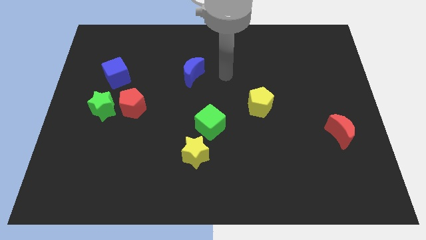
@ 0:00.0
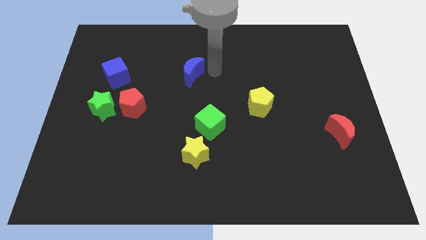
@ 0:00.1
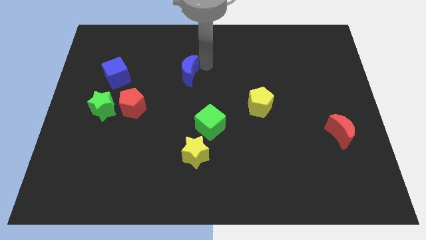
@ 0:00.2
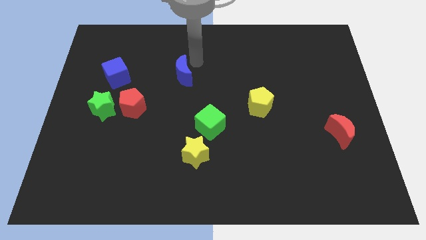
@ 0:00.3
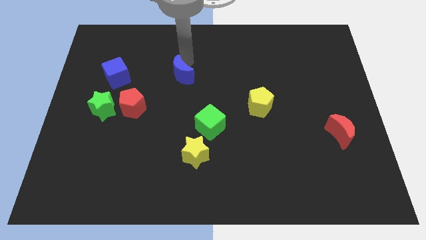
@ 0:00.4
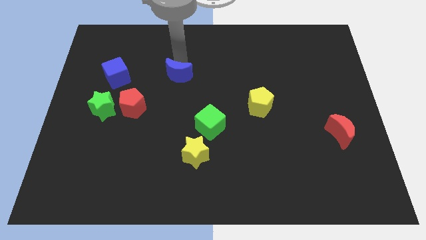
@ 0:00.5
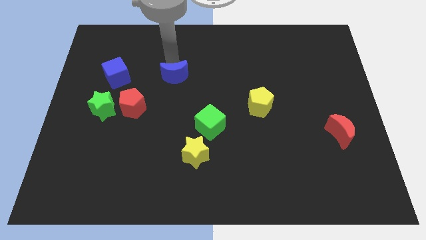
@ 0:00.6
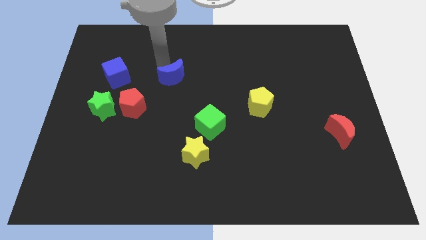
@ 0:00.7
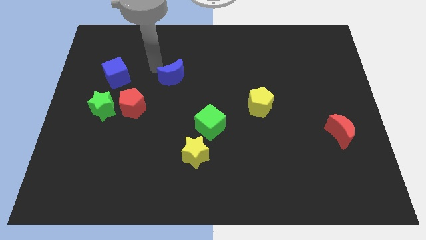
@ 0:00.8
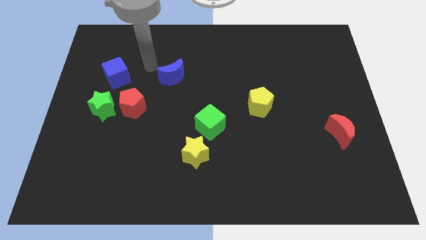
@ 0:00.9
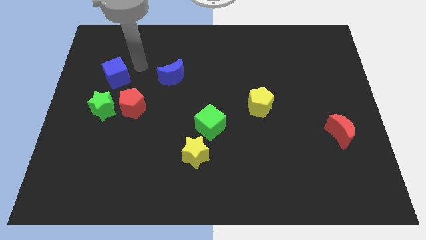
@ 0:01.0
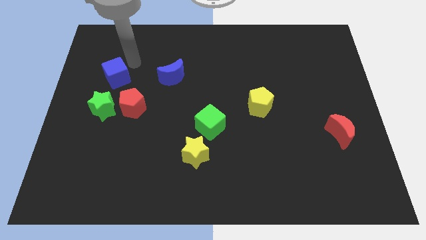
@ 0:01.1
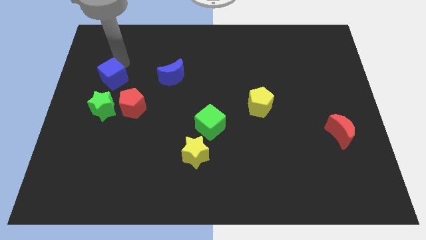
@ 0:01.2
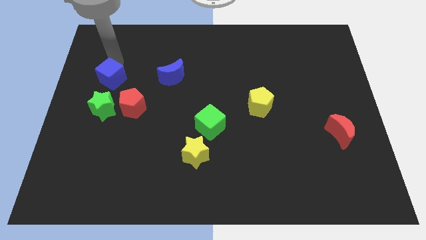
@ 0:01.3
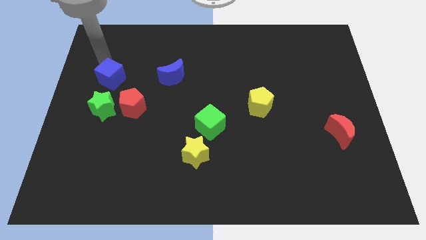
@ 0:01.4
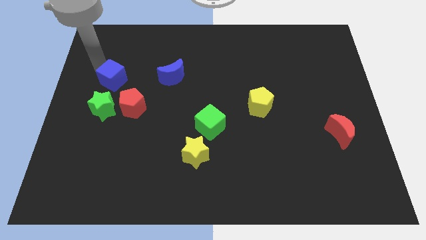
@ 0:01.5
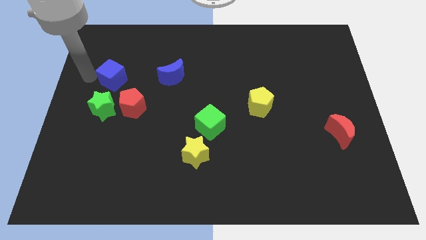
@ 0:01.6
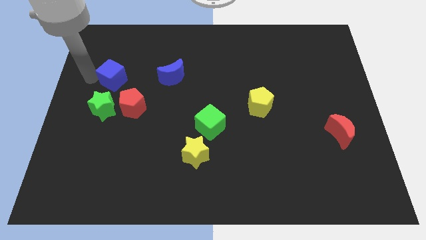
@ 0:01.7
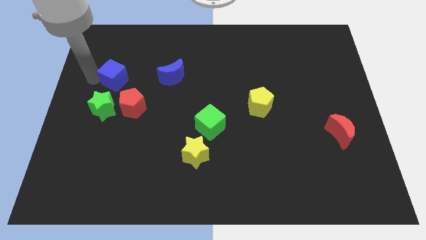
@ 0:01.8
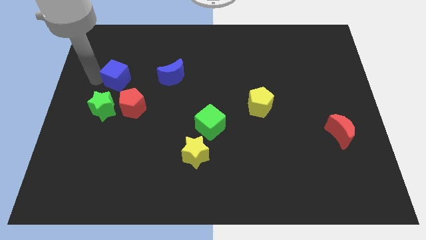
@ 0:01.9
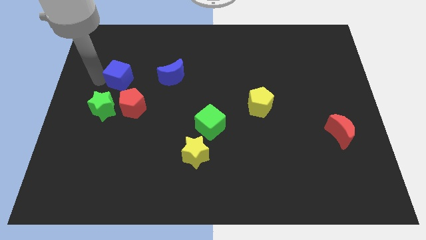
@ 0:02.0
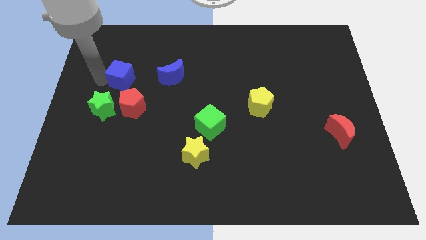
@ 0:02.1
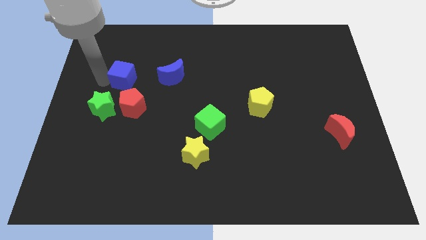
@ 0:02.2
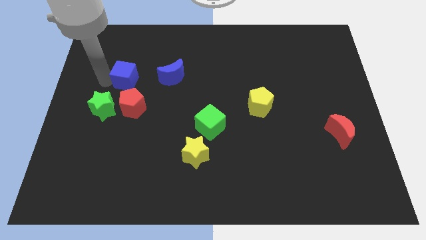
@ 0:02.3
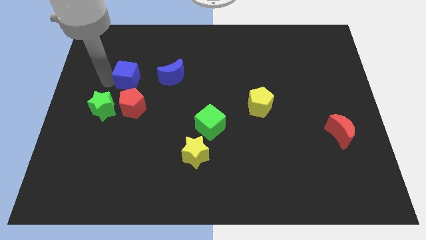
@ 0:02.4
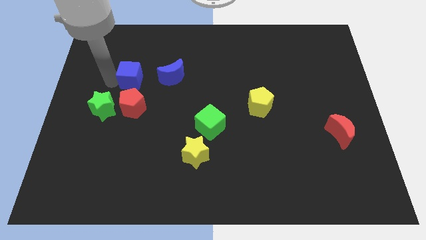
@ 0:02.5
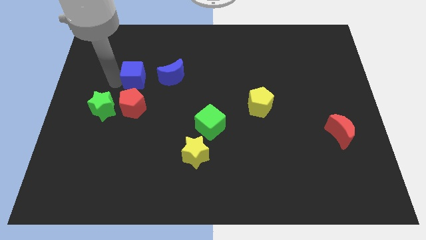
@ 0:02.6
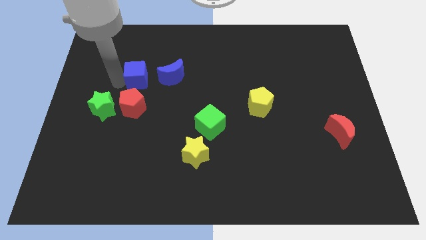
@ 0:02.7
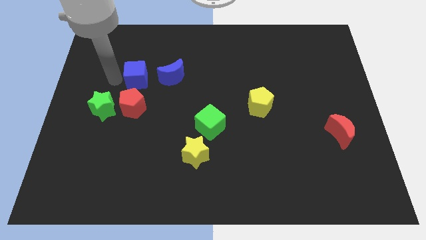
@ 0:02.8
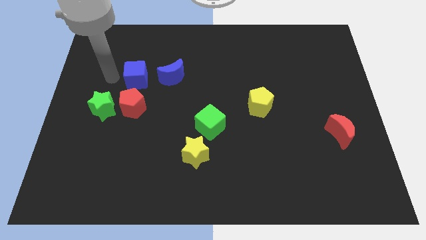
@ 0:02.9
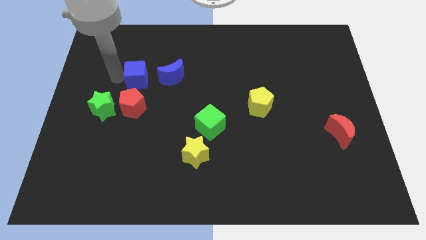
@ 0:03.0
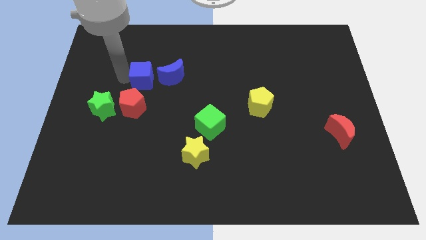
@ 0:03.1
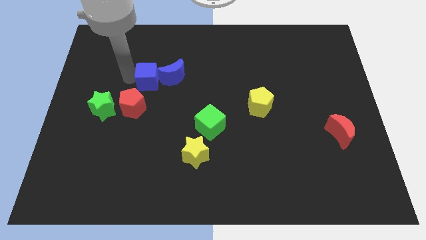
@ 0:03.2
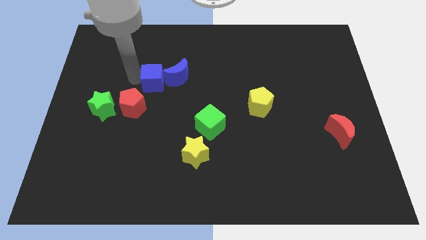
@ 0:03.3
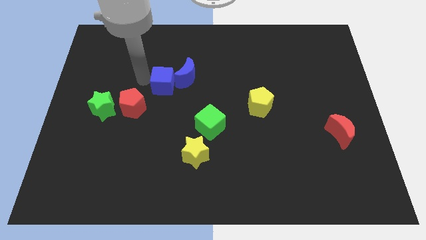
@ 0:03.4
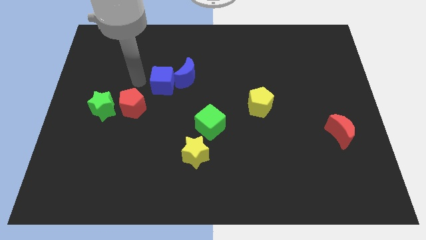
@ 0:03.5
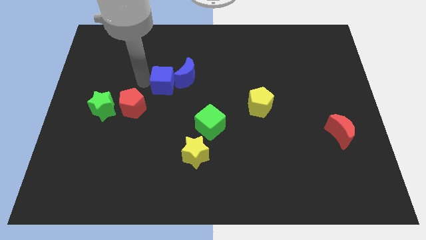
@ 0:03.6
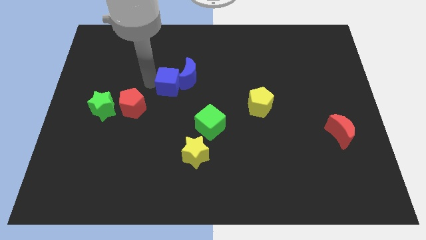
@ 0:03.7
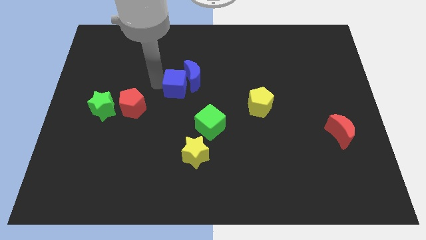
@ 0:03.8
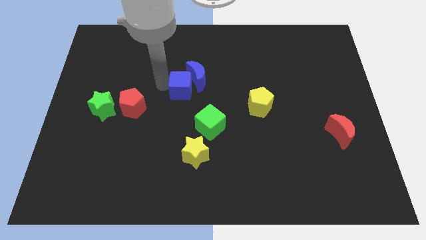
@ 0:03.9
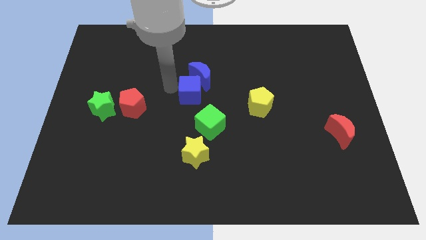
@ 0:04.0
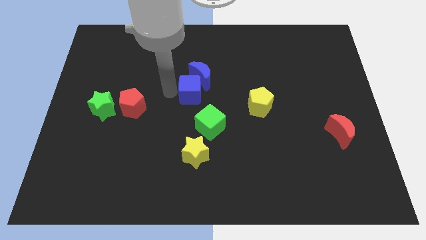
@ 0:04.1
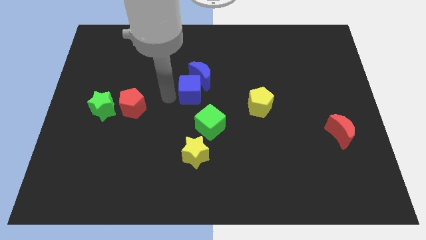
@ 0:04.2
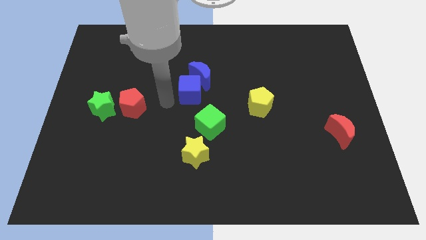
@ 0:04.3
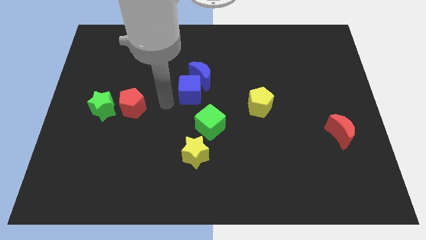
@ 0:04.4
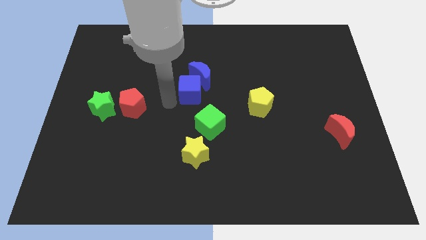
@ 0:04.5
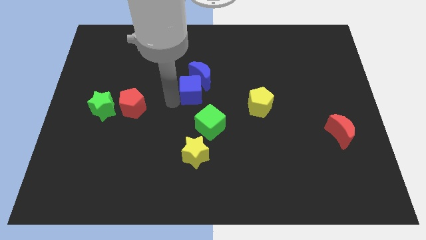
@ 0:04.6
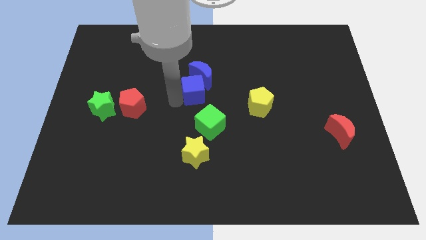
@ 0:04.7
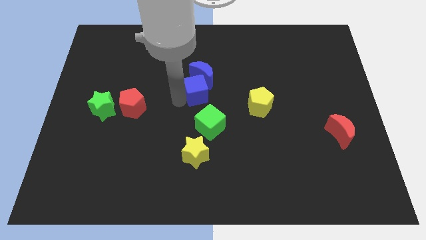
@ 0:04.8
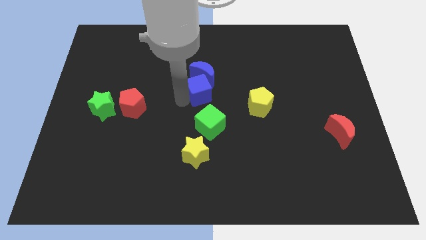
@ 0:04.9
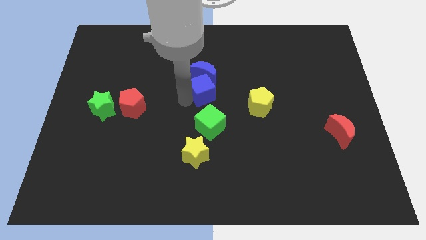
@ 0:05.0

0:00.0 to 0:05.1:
move the blue cube to the right

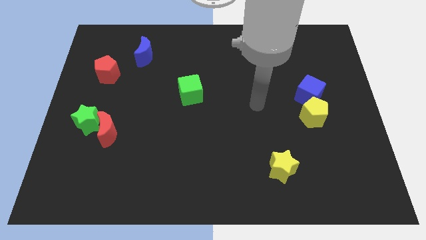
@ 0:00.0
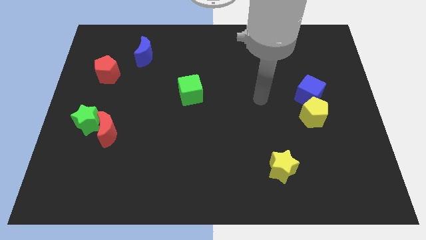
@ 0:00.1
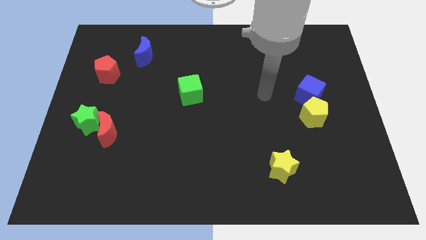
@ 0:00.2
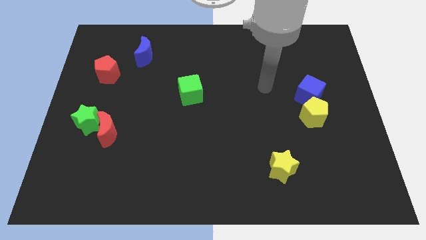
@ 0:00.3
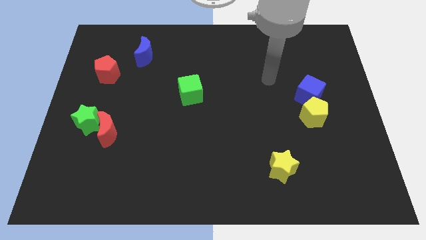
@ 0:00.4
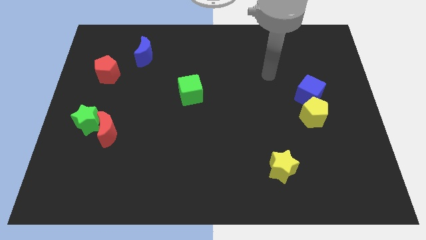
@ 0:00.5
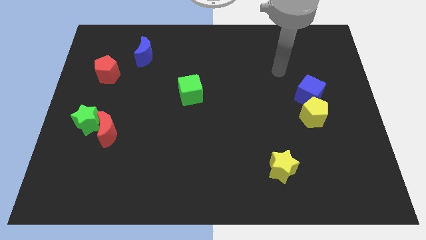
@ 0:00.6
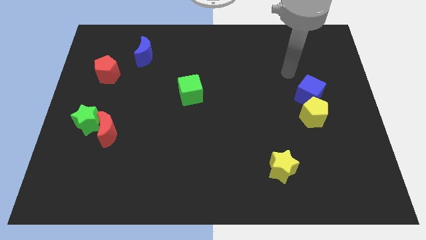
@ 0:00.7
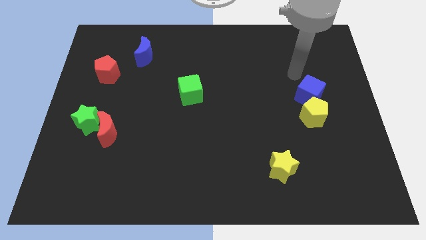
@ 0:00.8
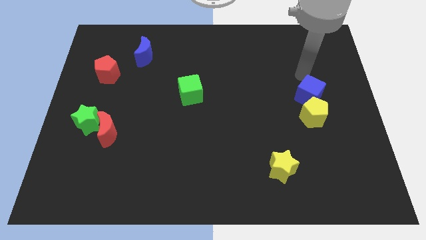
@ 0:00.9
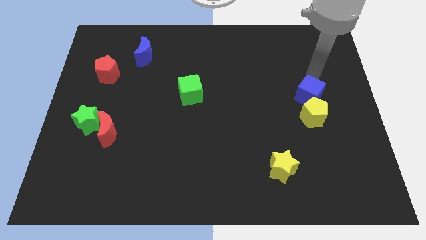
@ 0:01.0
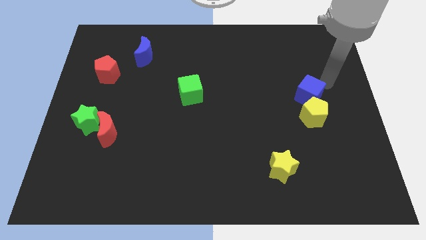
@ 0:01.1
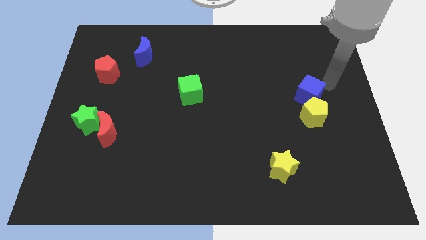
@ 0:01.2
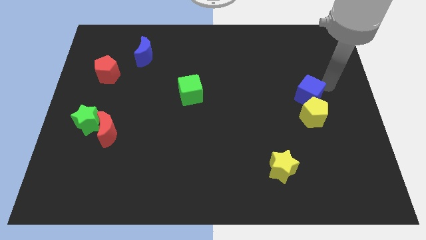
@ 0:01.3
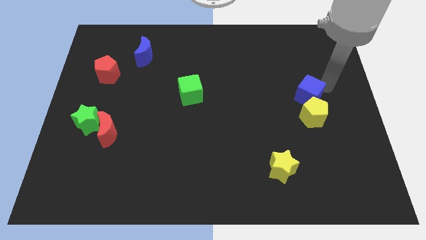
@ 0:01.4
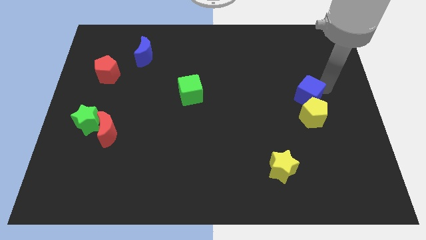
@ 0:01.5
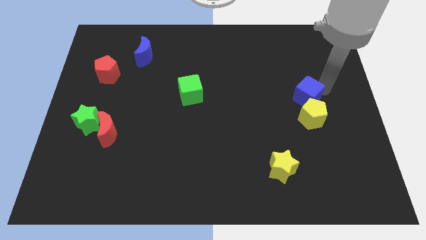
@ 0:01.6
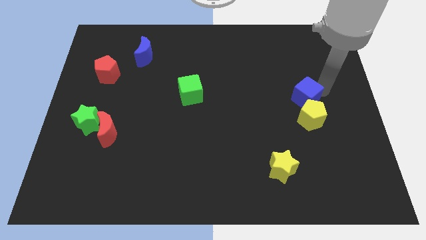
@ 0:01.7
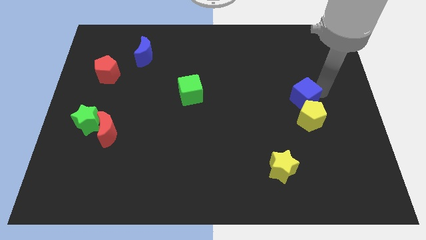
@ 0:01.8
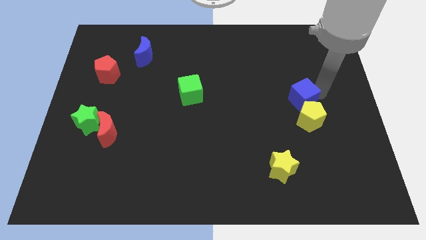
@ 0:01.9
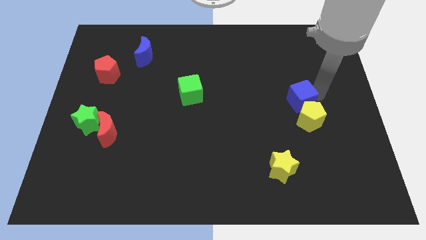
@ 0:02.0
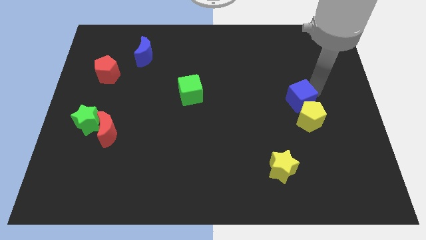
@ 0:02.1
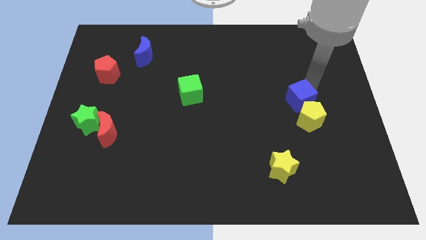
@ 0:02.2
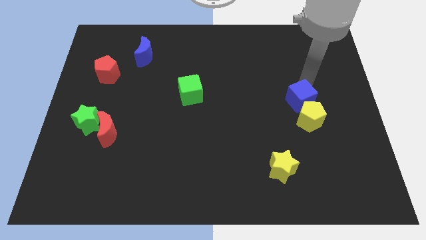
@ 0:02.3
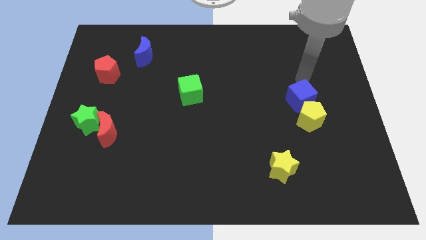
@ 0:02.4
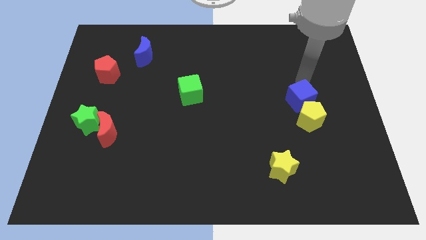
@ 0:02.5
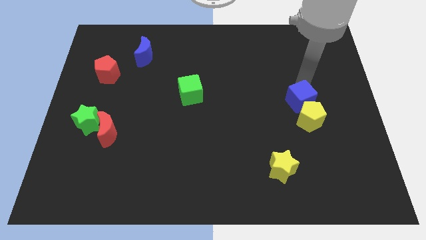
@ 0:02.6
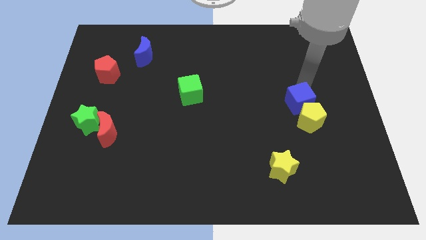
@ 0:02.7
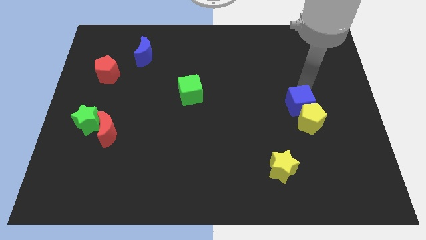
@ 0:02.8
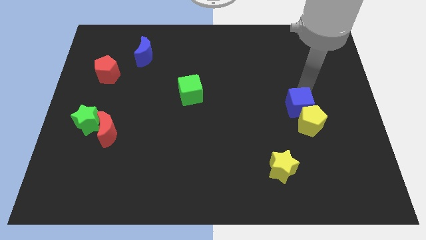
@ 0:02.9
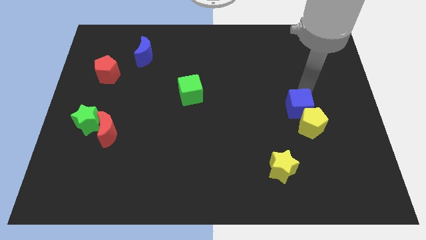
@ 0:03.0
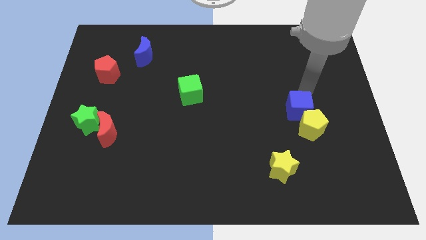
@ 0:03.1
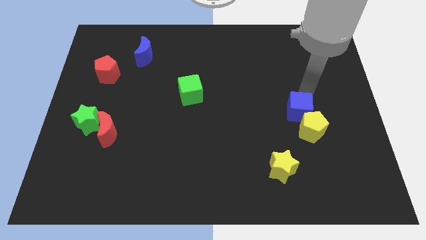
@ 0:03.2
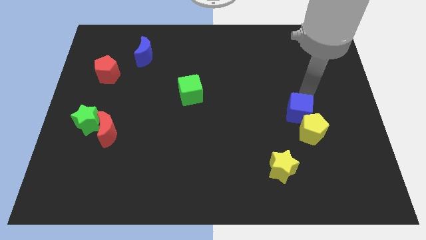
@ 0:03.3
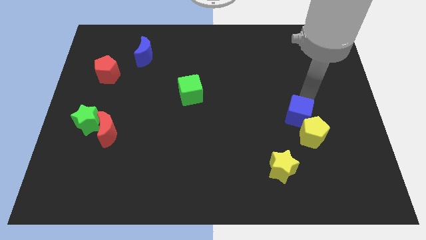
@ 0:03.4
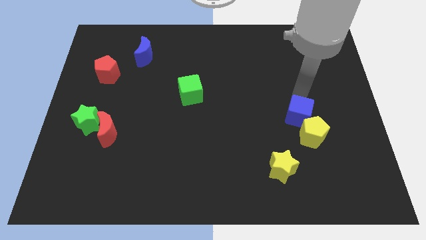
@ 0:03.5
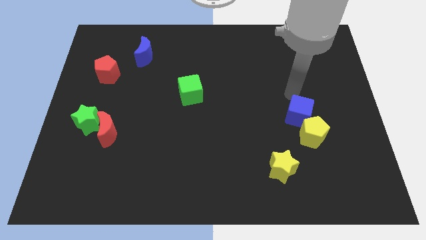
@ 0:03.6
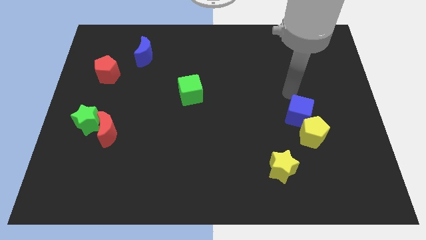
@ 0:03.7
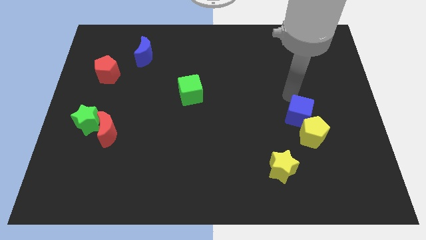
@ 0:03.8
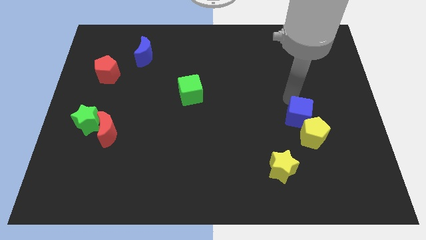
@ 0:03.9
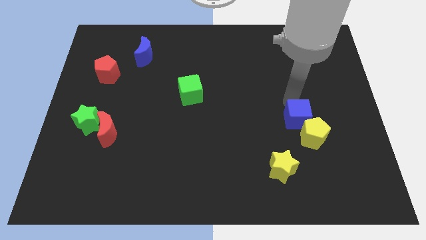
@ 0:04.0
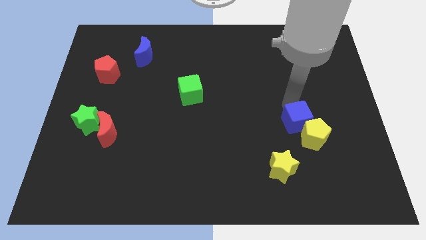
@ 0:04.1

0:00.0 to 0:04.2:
push the blue cube slightly downwards
